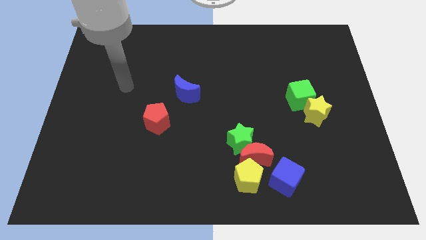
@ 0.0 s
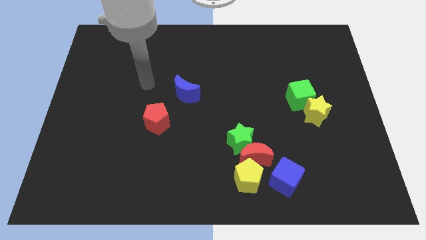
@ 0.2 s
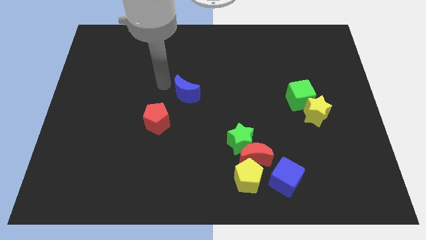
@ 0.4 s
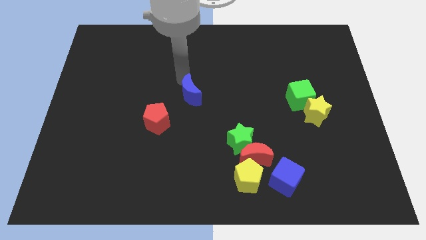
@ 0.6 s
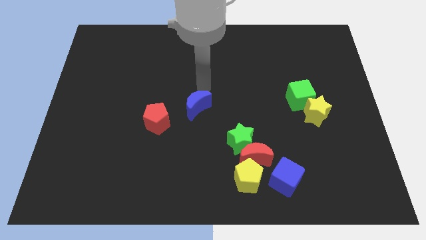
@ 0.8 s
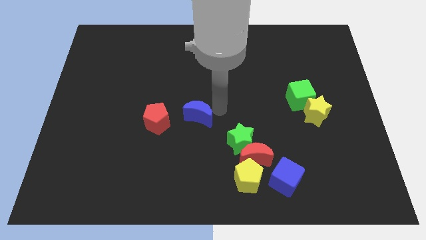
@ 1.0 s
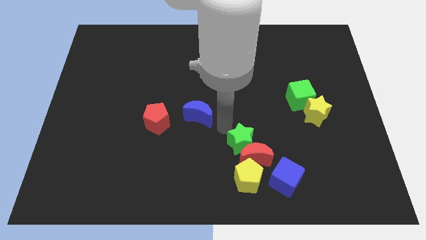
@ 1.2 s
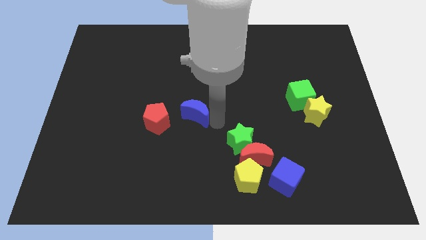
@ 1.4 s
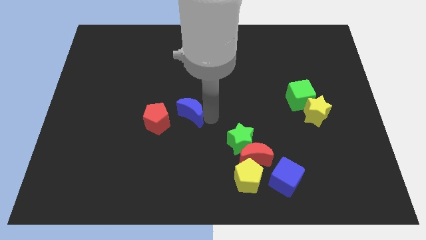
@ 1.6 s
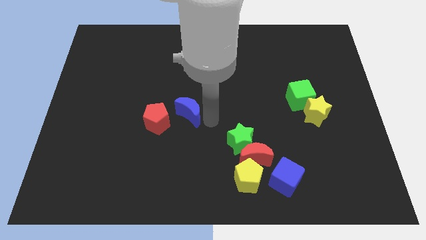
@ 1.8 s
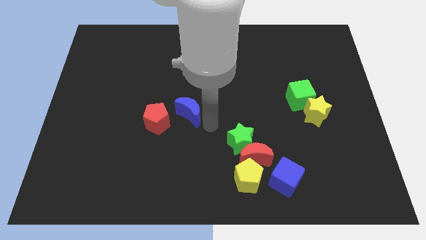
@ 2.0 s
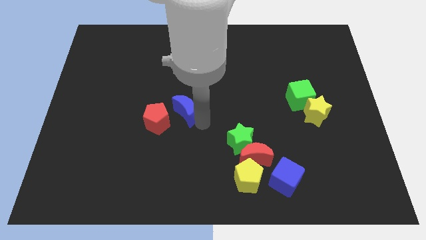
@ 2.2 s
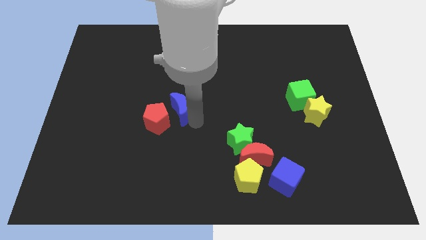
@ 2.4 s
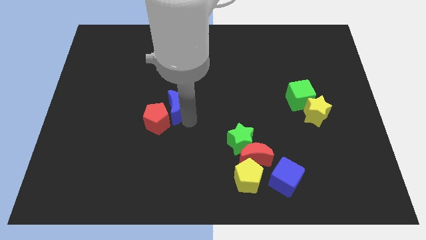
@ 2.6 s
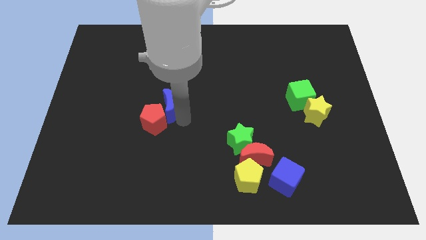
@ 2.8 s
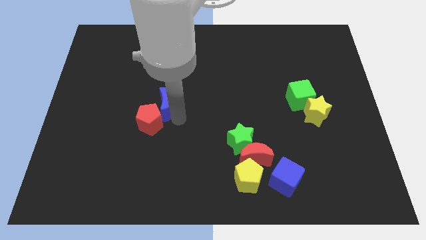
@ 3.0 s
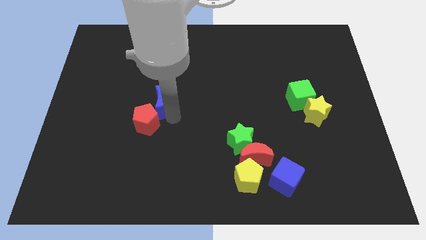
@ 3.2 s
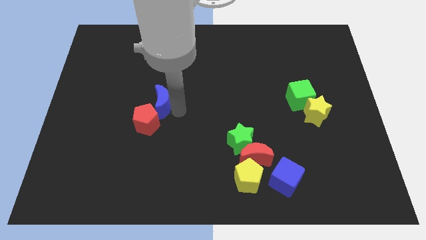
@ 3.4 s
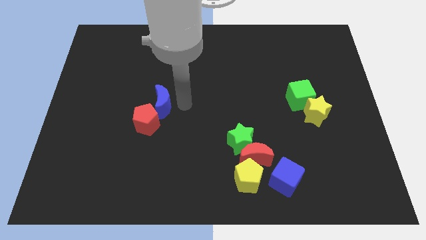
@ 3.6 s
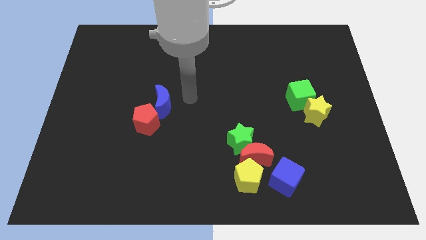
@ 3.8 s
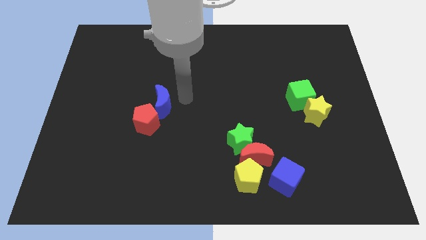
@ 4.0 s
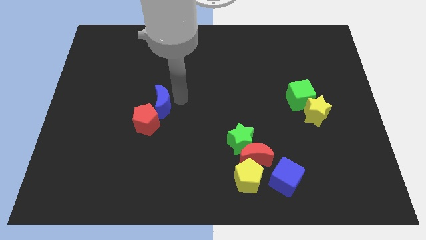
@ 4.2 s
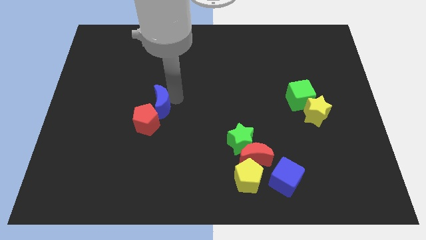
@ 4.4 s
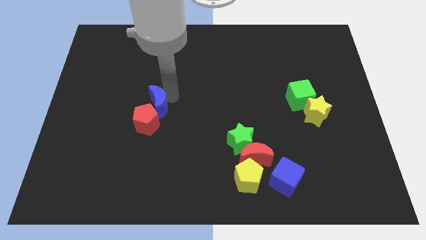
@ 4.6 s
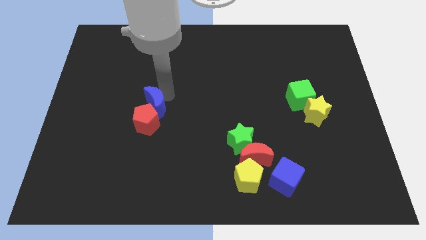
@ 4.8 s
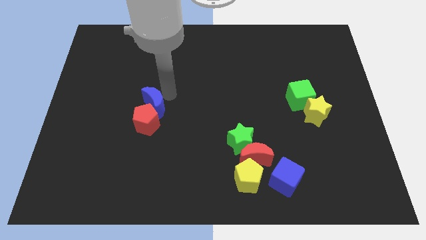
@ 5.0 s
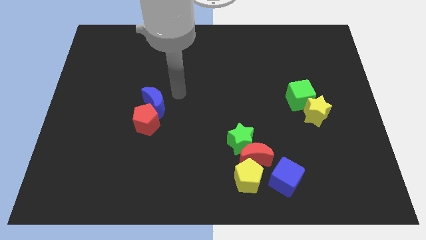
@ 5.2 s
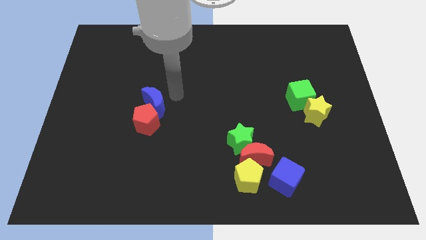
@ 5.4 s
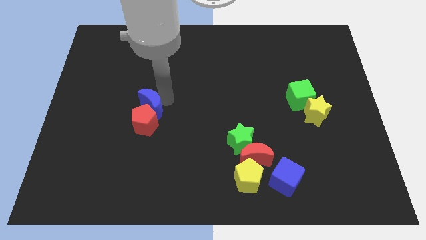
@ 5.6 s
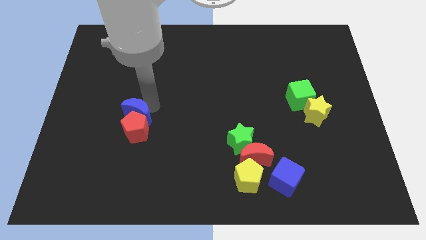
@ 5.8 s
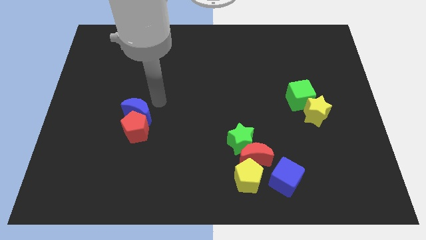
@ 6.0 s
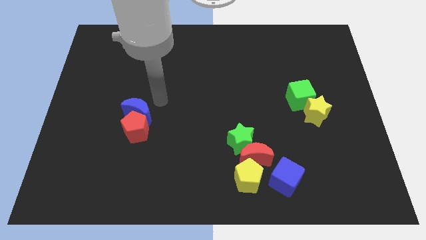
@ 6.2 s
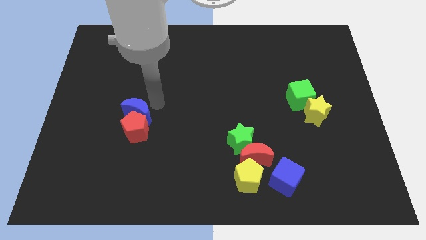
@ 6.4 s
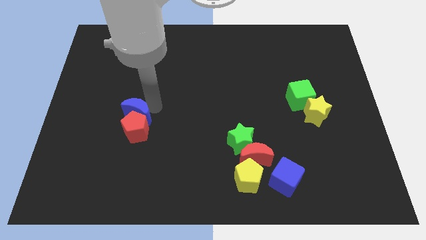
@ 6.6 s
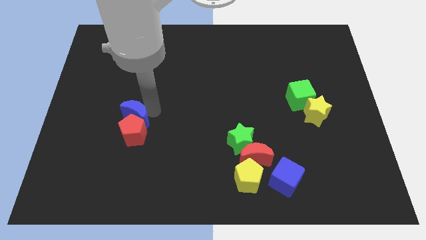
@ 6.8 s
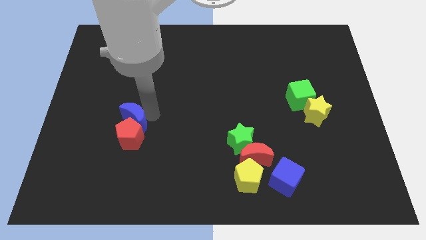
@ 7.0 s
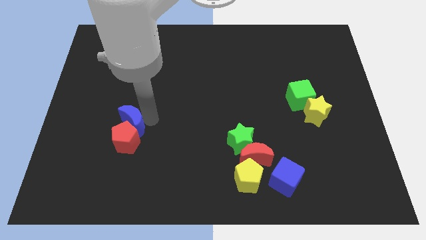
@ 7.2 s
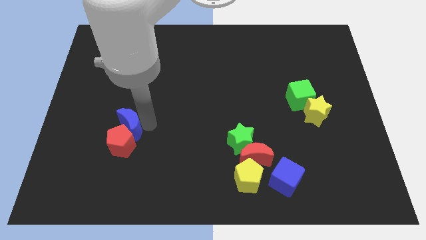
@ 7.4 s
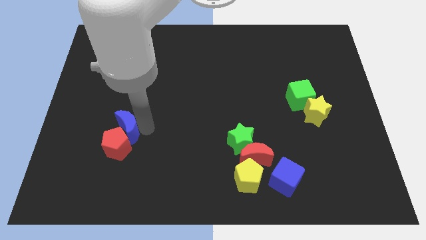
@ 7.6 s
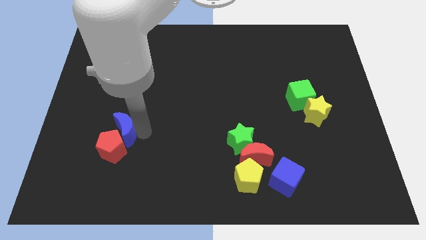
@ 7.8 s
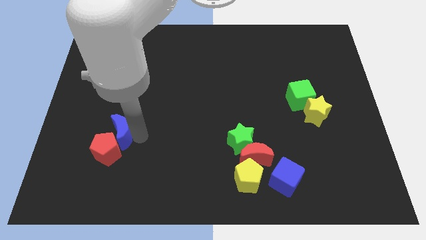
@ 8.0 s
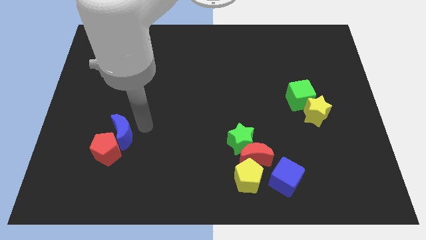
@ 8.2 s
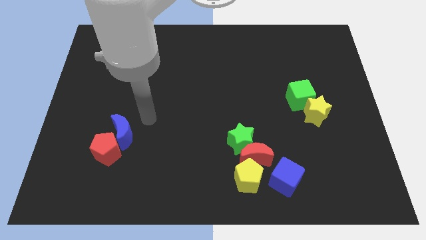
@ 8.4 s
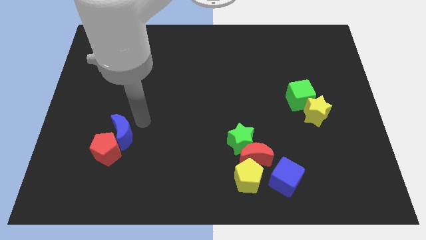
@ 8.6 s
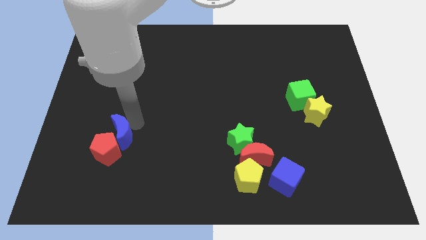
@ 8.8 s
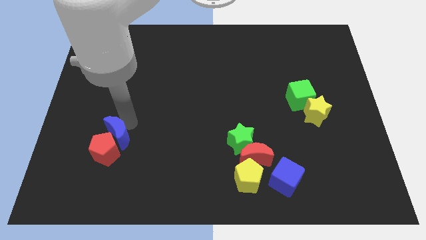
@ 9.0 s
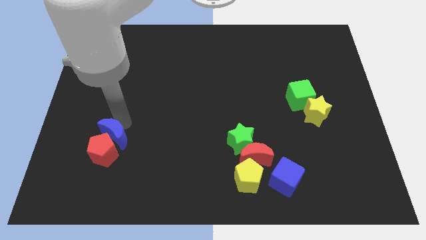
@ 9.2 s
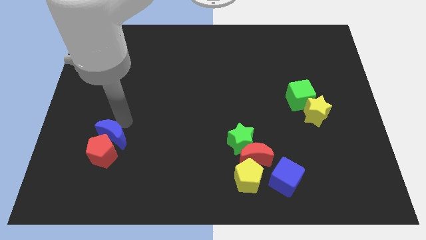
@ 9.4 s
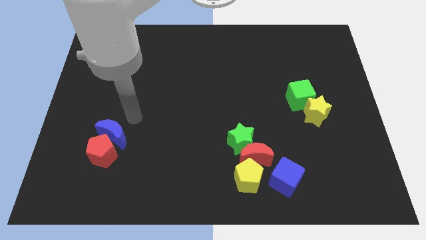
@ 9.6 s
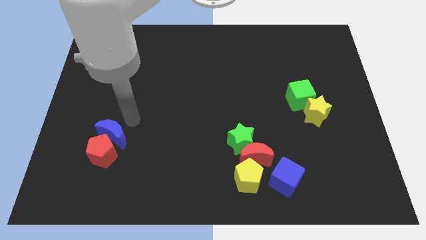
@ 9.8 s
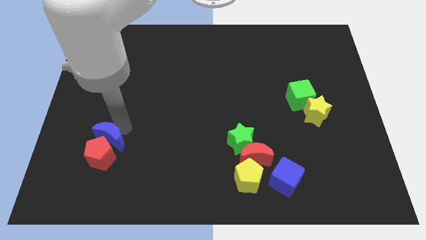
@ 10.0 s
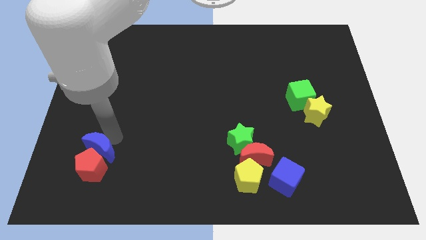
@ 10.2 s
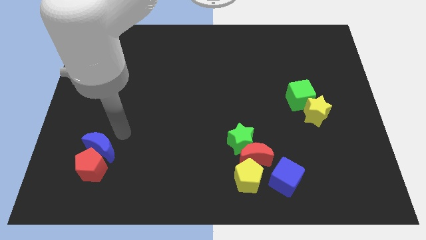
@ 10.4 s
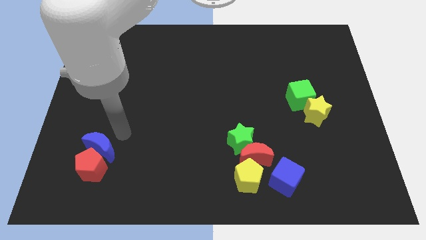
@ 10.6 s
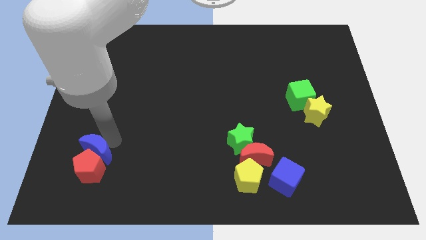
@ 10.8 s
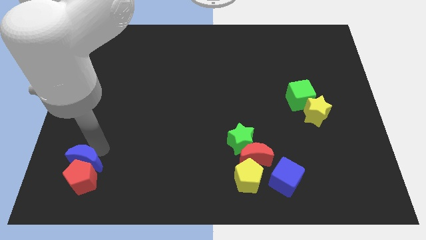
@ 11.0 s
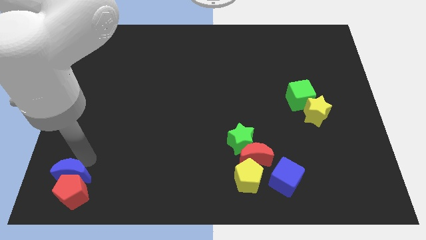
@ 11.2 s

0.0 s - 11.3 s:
push the blue moon to the bottom left of the board
